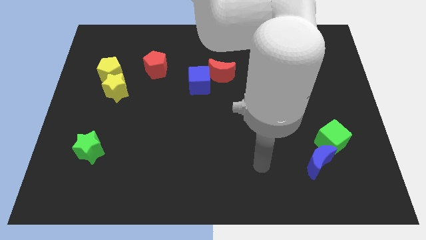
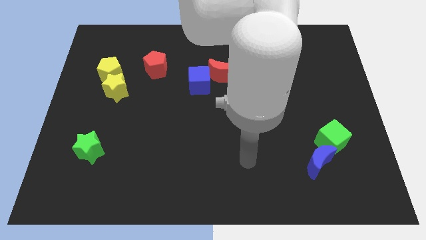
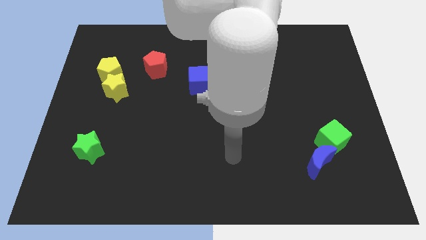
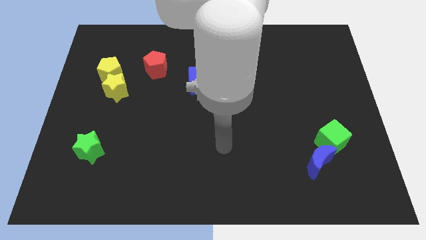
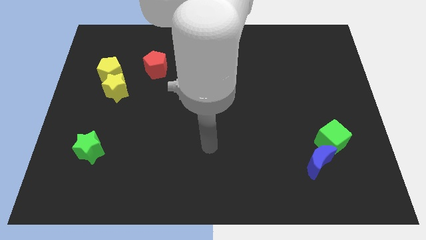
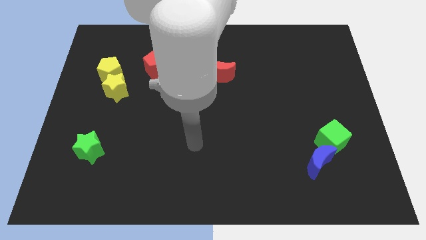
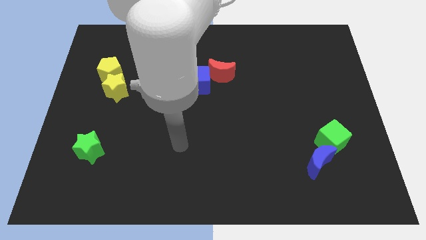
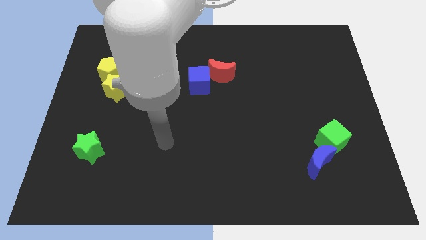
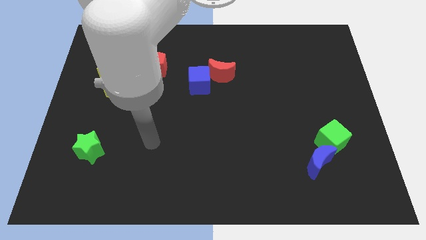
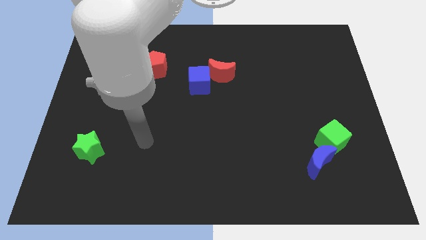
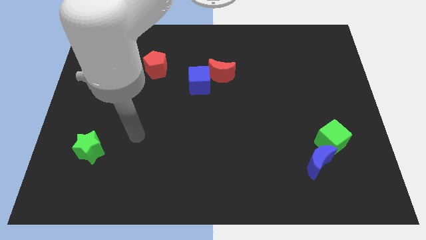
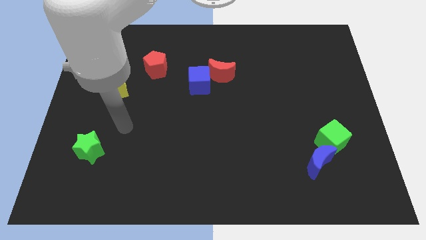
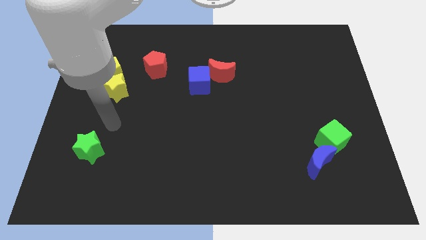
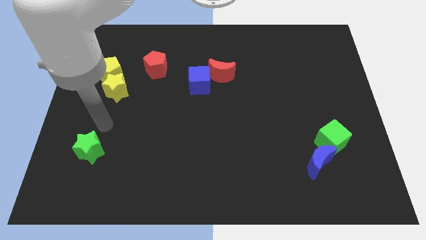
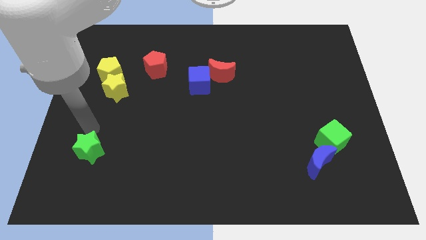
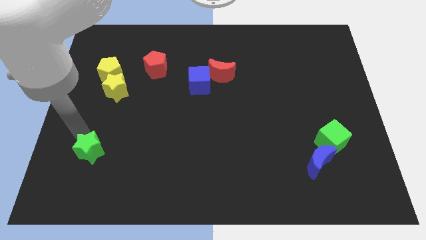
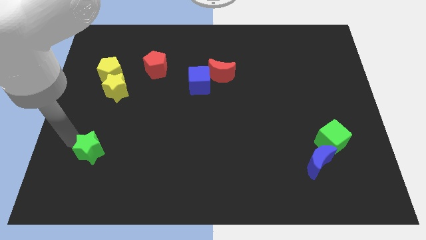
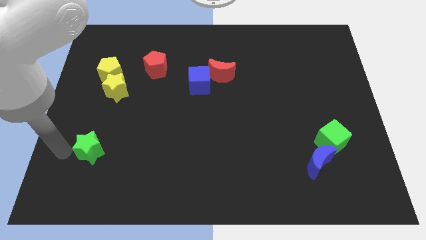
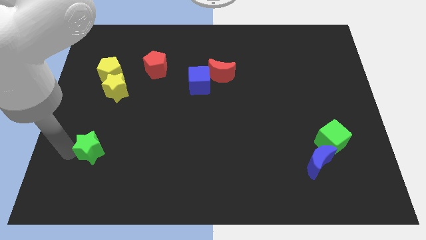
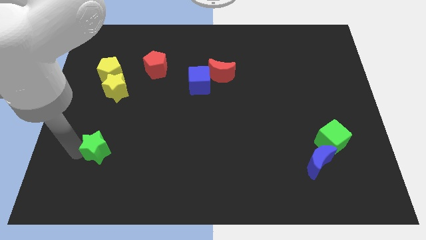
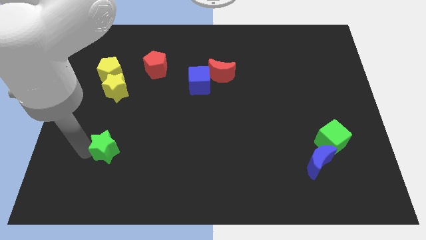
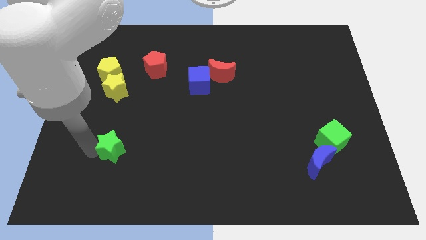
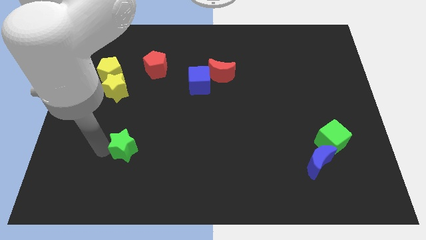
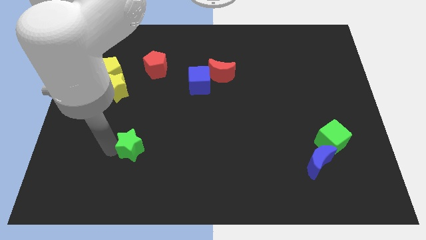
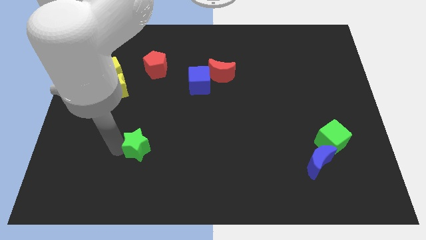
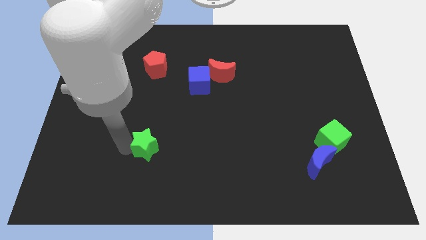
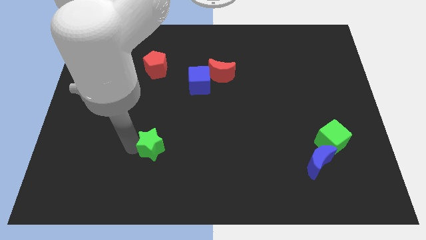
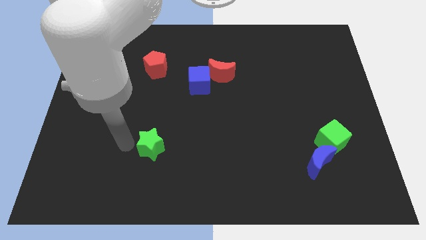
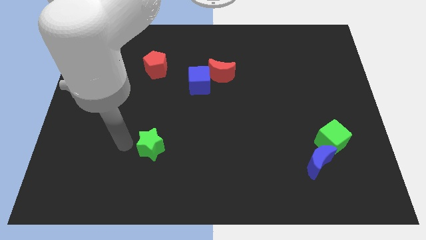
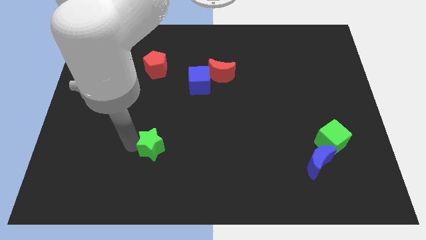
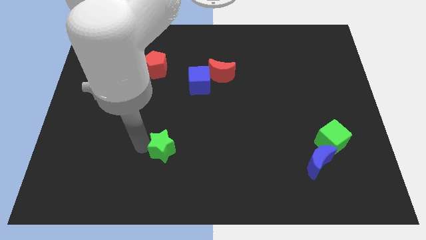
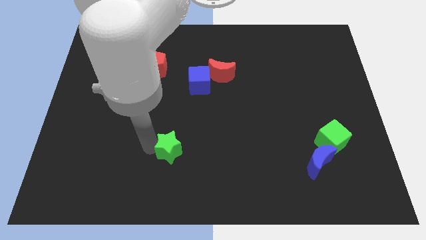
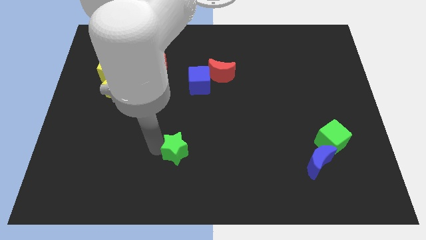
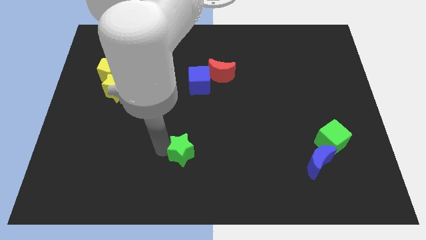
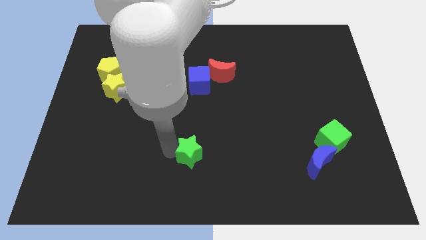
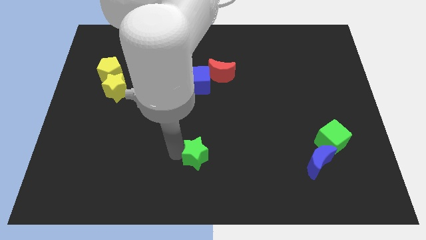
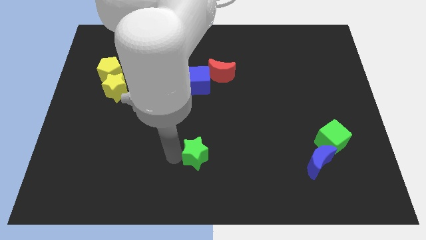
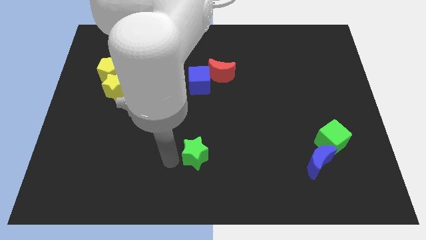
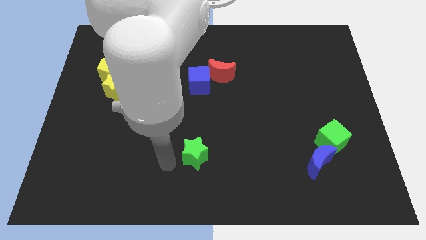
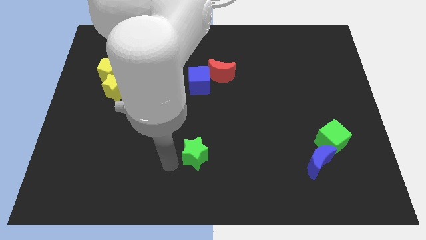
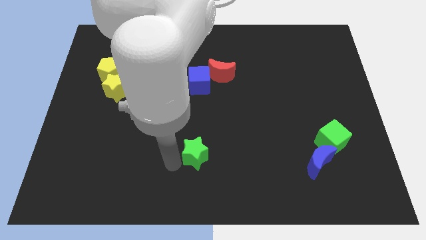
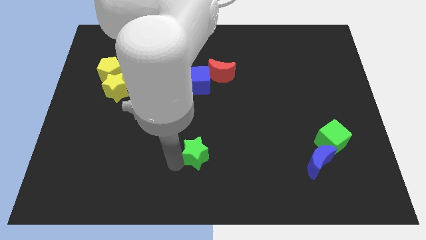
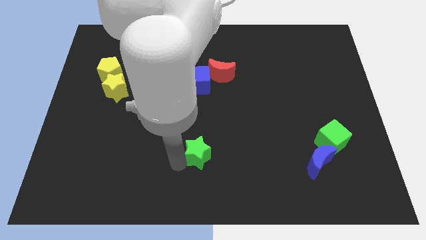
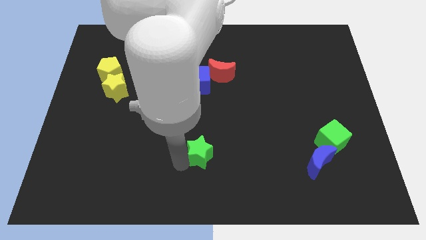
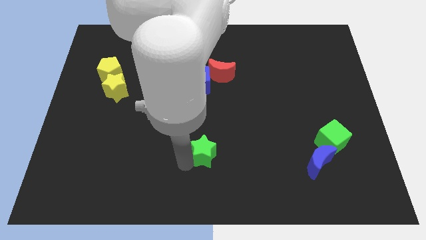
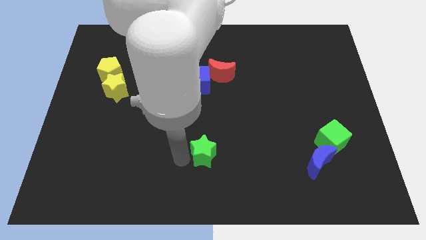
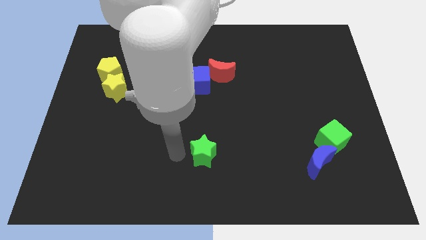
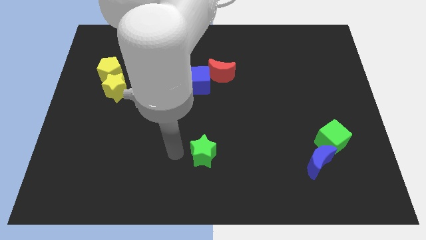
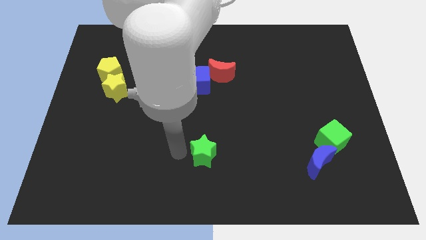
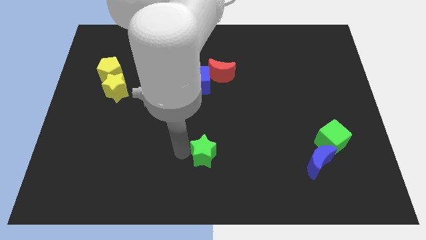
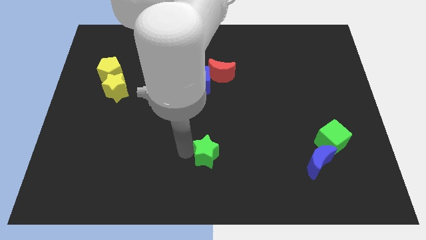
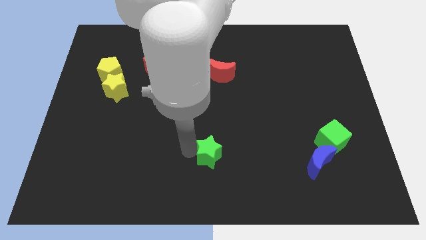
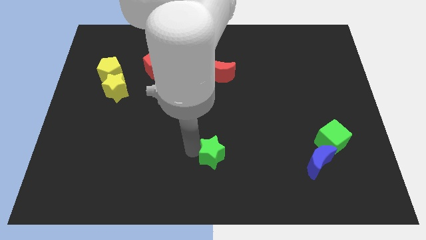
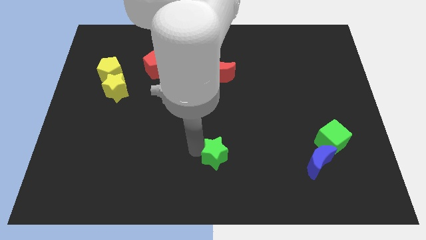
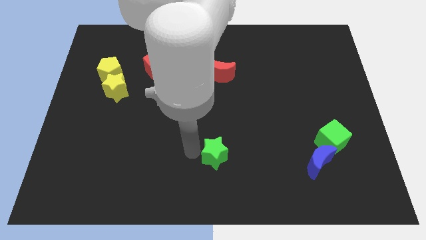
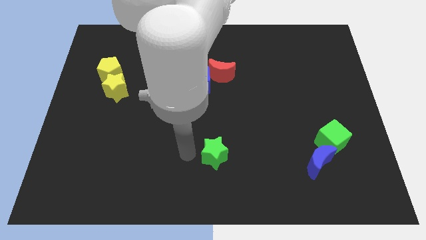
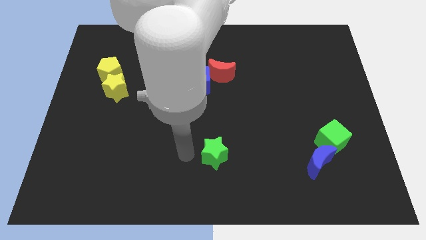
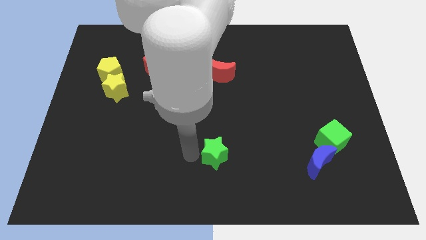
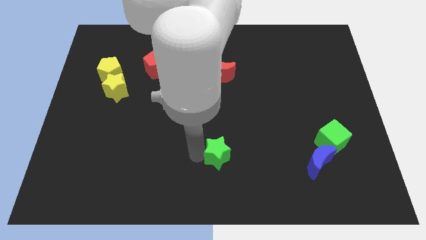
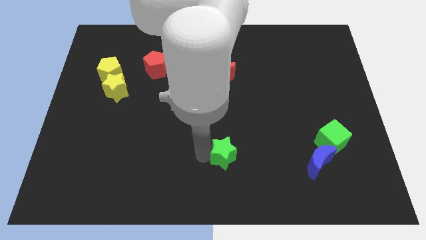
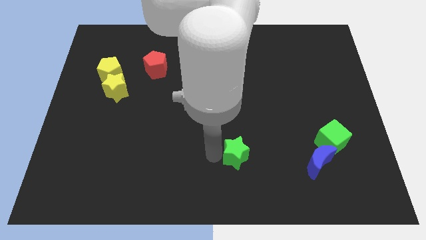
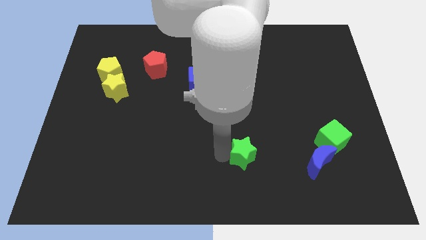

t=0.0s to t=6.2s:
push the green star just left of the blue moon

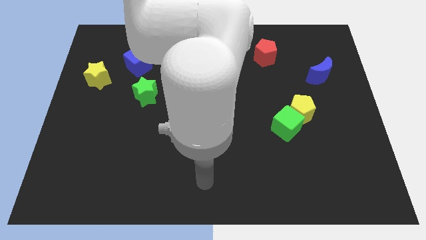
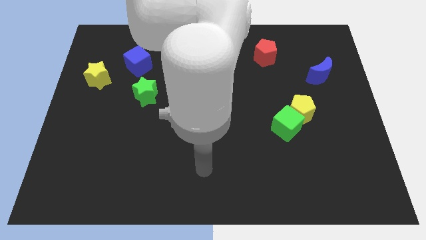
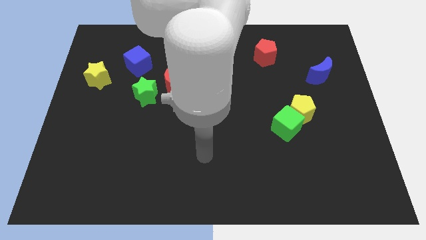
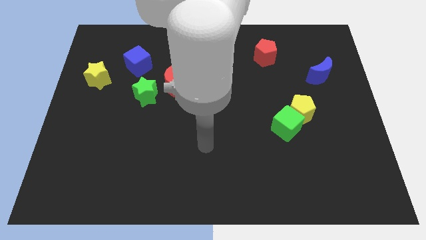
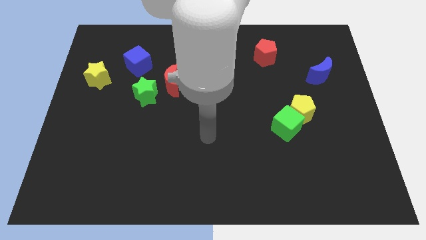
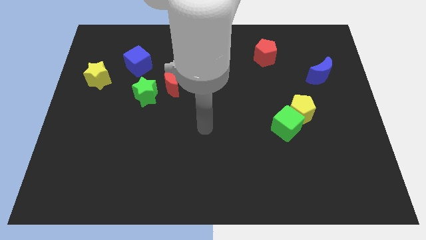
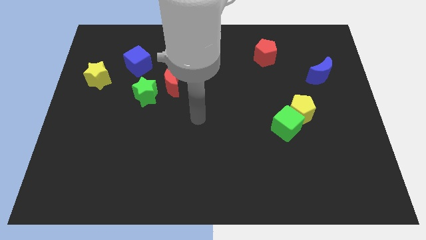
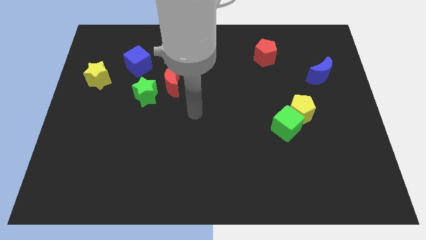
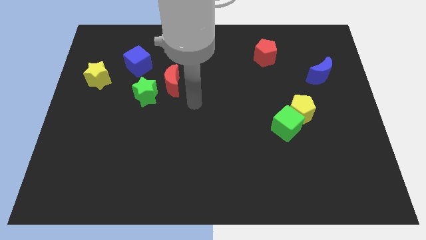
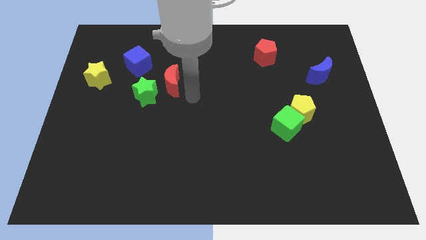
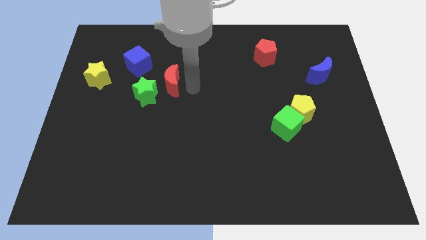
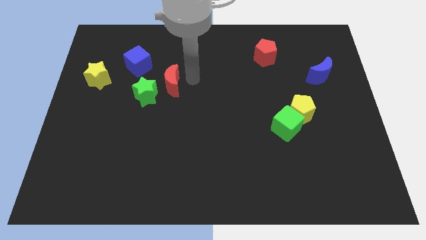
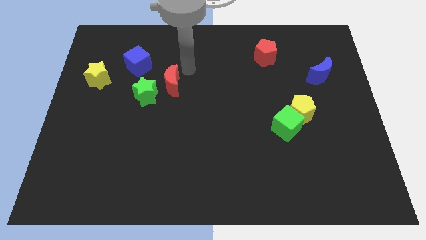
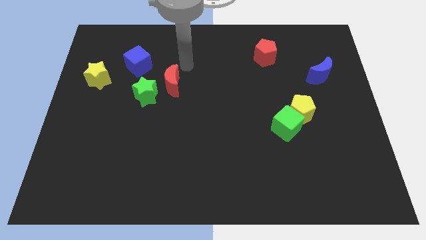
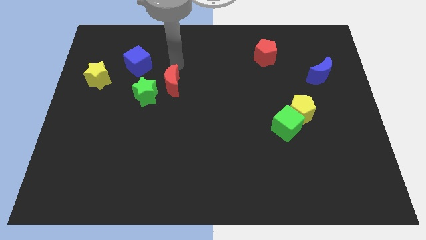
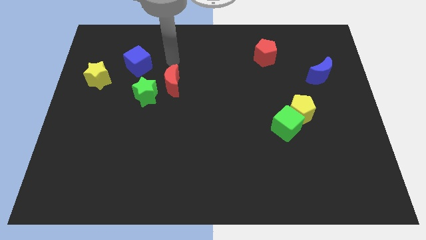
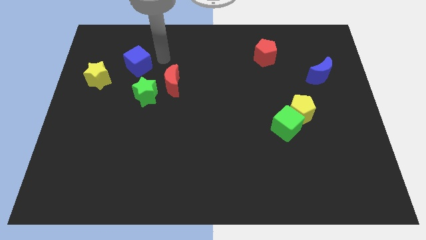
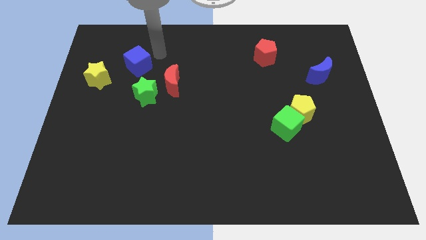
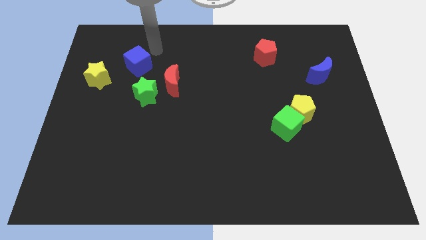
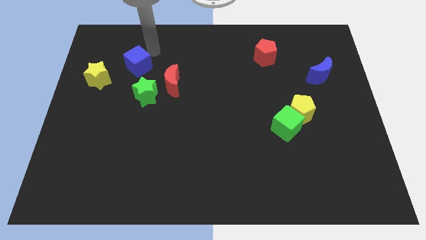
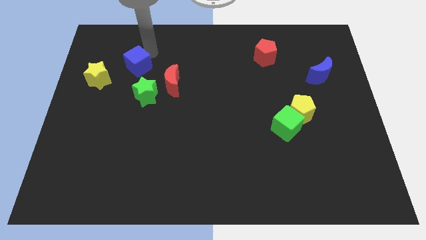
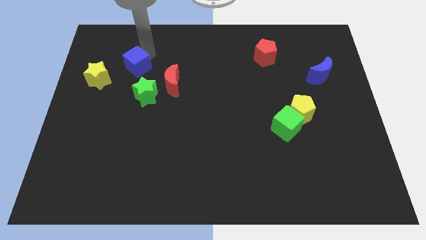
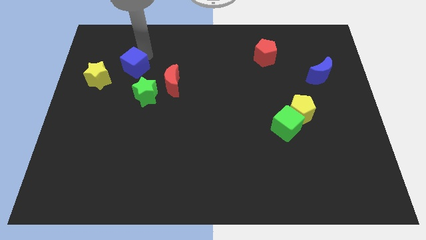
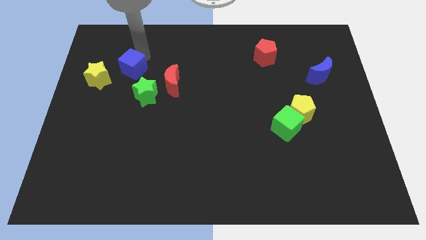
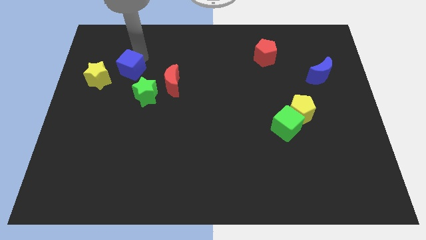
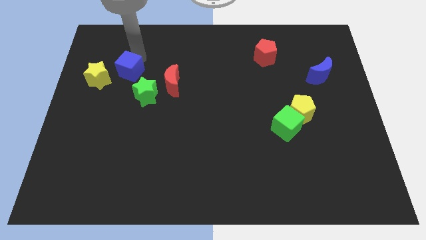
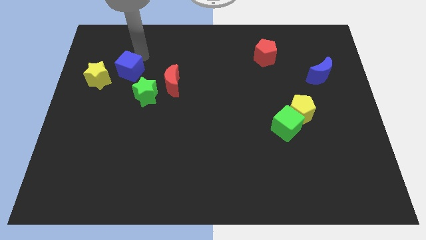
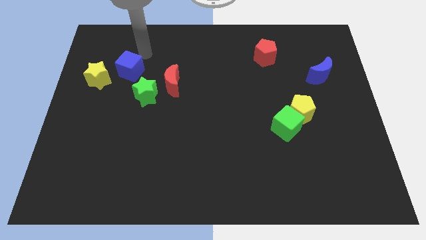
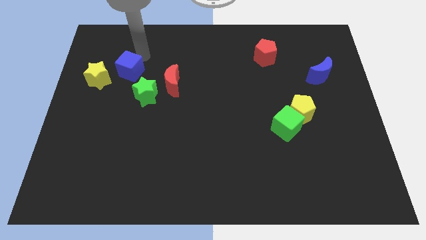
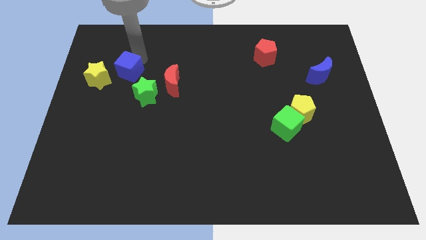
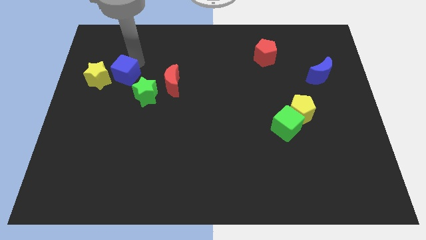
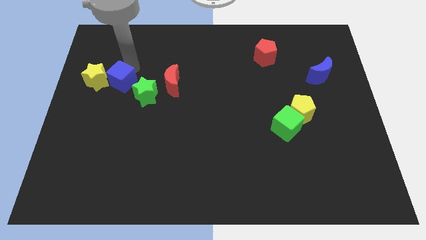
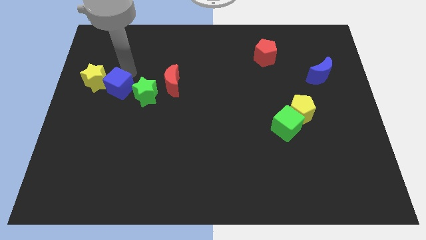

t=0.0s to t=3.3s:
slide the blue cube to the left side of the green star
